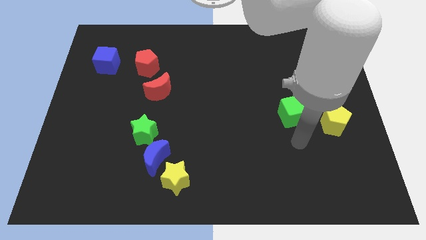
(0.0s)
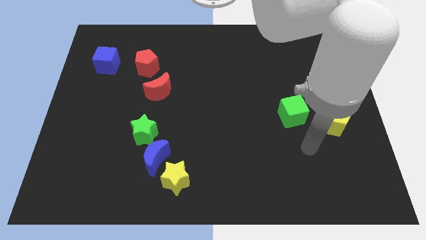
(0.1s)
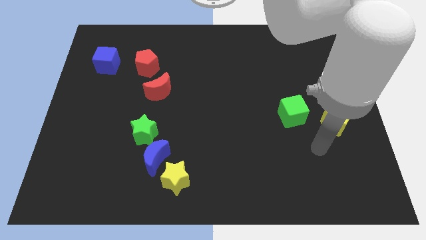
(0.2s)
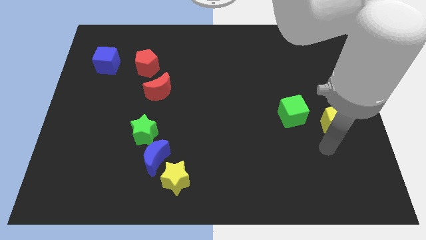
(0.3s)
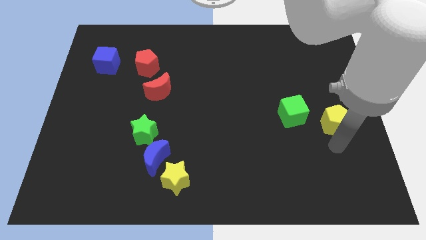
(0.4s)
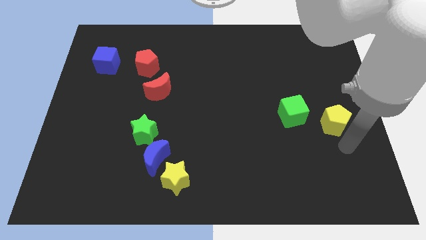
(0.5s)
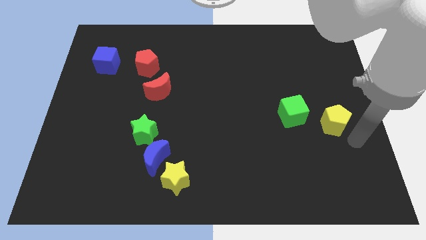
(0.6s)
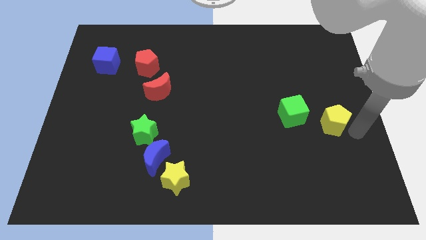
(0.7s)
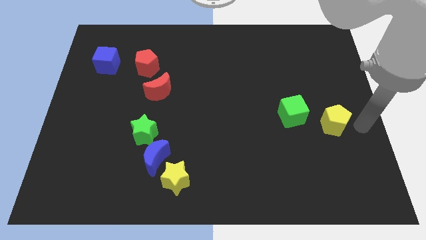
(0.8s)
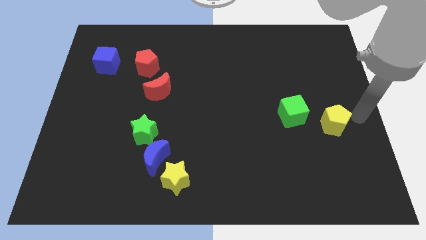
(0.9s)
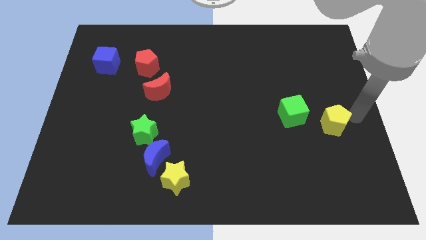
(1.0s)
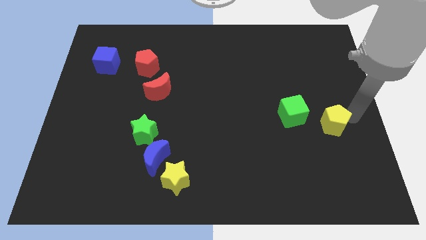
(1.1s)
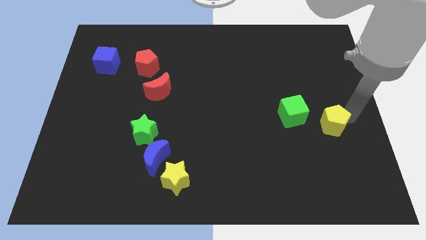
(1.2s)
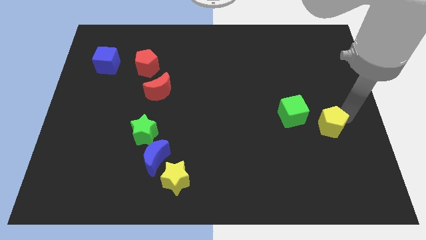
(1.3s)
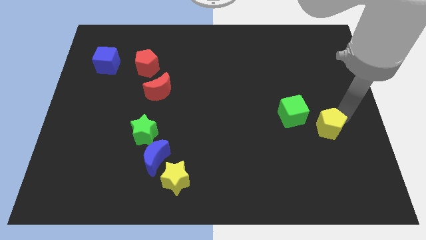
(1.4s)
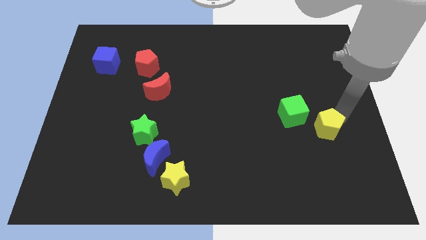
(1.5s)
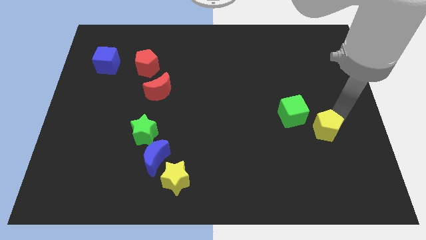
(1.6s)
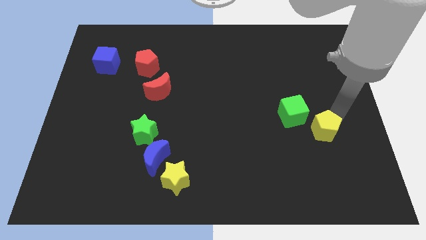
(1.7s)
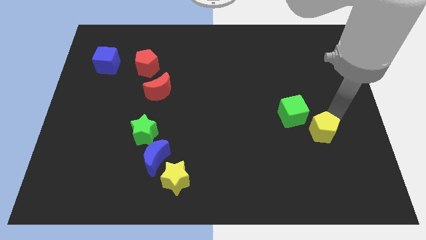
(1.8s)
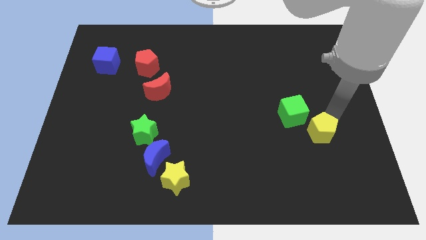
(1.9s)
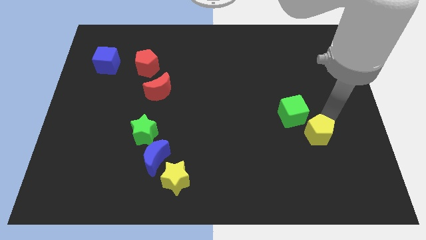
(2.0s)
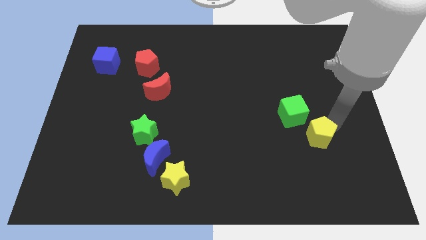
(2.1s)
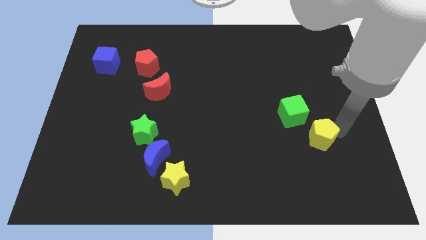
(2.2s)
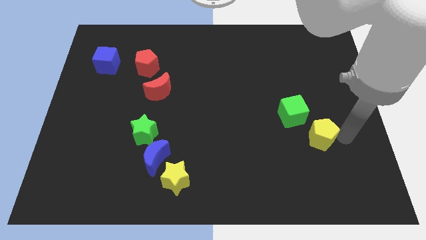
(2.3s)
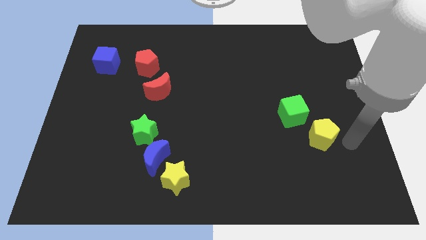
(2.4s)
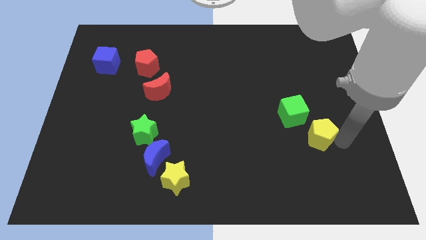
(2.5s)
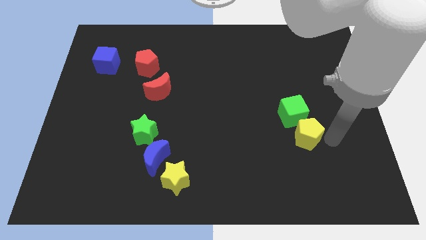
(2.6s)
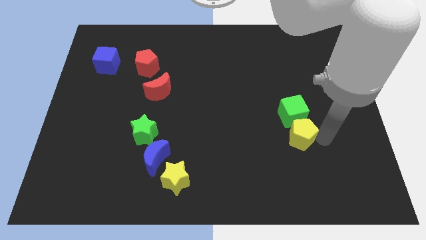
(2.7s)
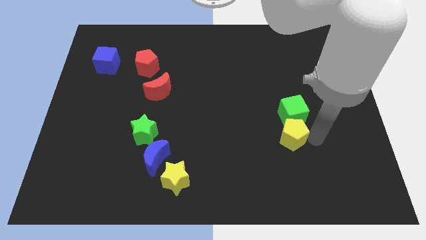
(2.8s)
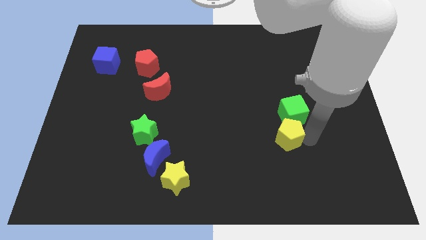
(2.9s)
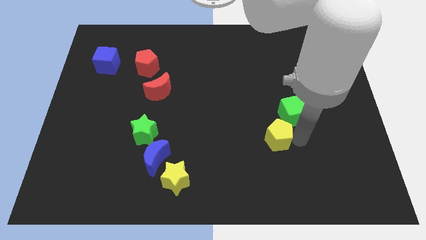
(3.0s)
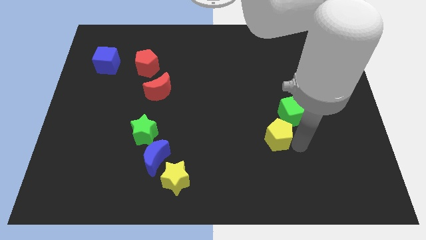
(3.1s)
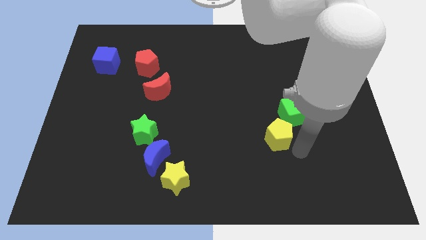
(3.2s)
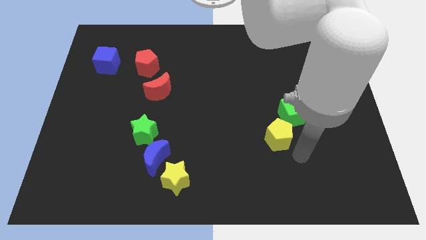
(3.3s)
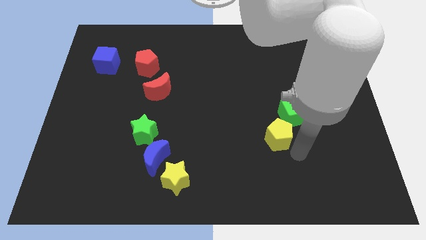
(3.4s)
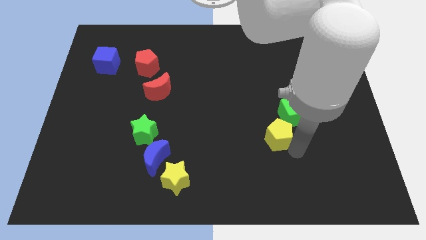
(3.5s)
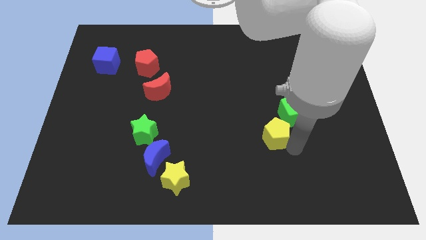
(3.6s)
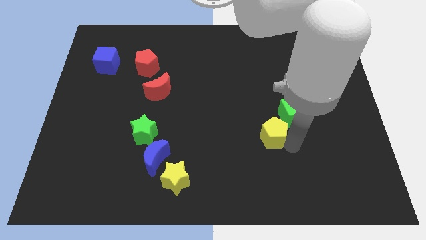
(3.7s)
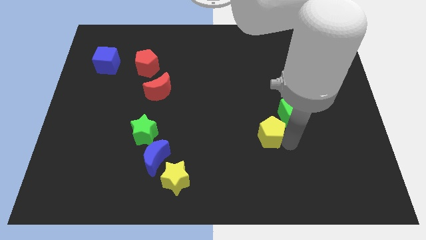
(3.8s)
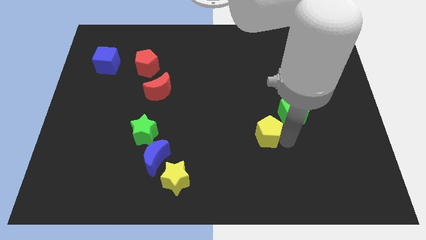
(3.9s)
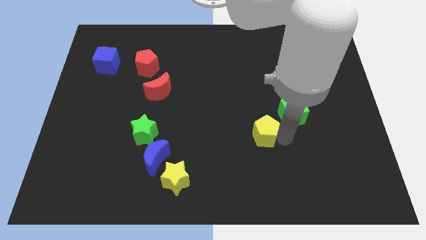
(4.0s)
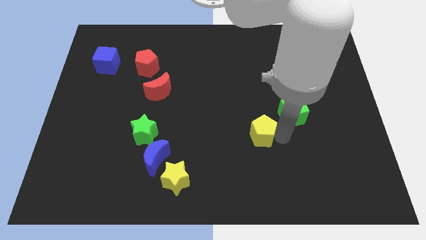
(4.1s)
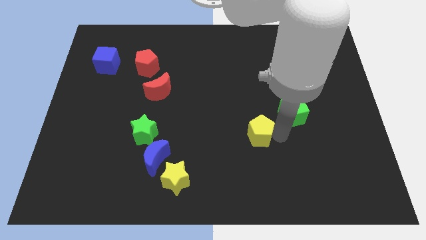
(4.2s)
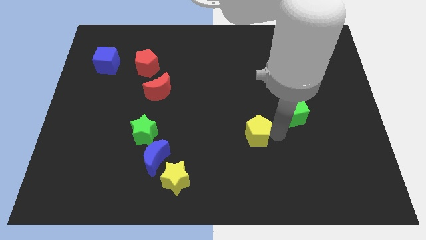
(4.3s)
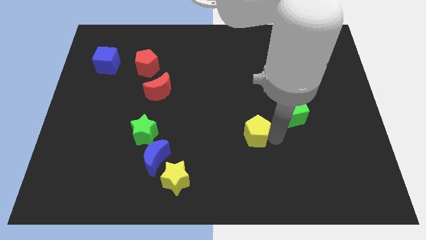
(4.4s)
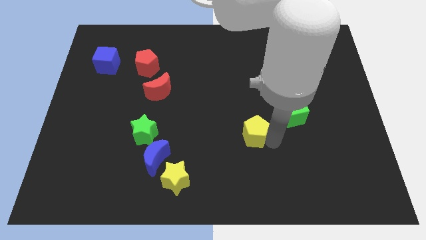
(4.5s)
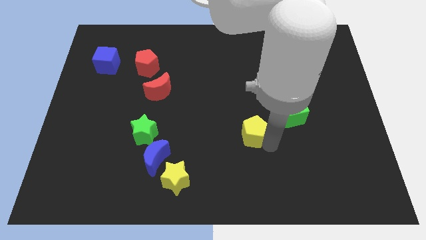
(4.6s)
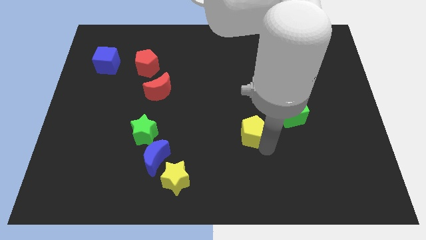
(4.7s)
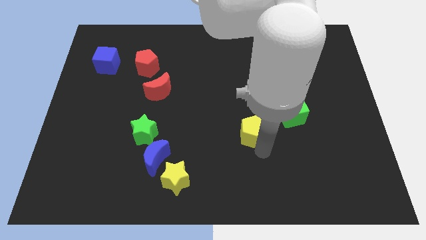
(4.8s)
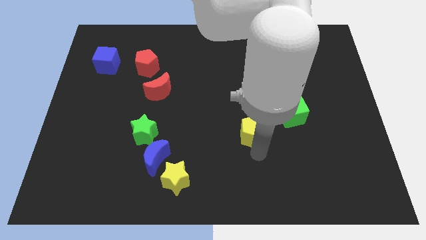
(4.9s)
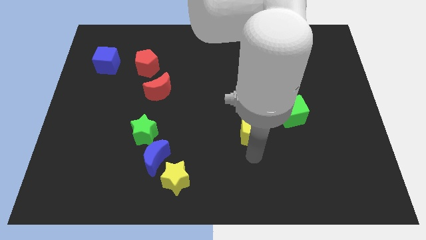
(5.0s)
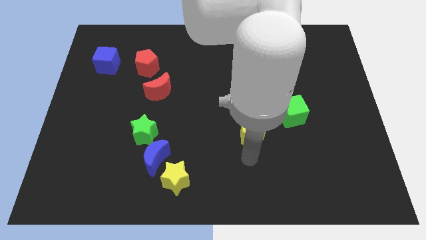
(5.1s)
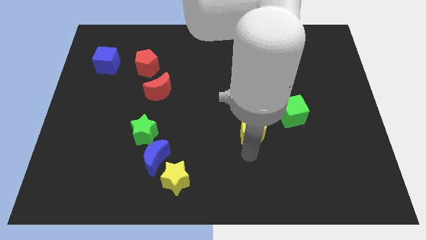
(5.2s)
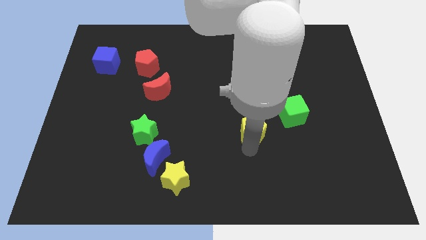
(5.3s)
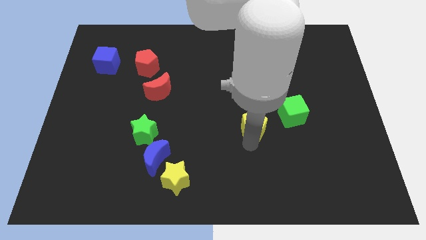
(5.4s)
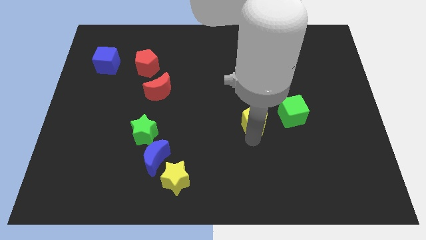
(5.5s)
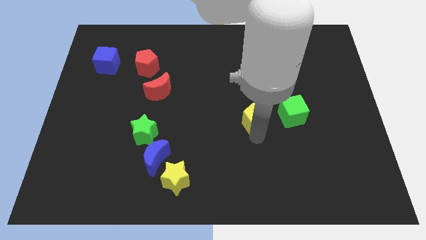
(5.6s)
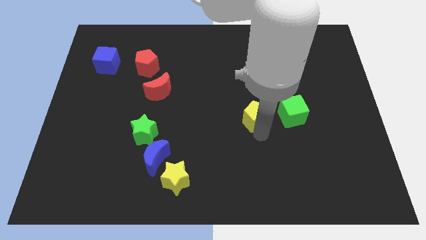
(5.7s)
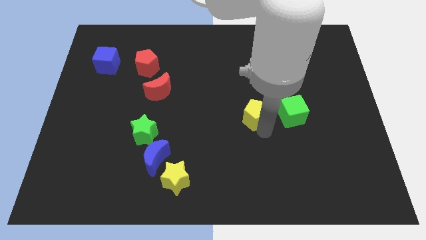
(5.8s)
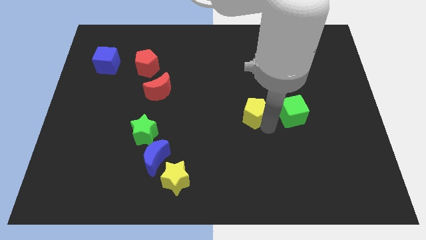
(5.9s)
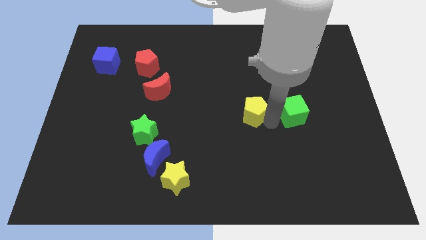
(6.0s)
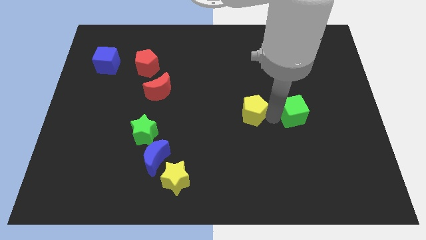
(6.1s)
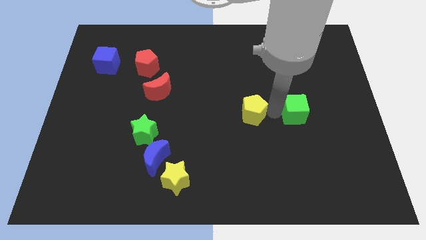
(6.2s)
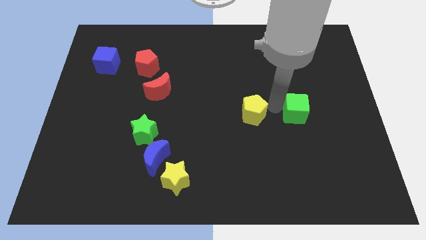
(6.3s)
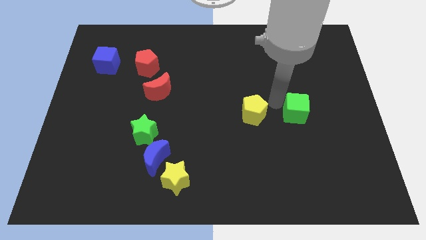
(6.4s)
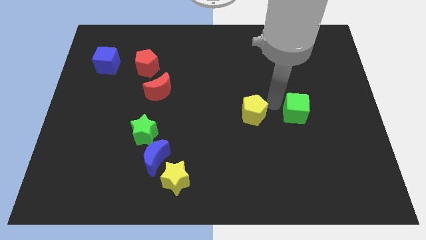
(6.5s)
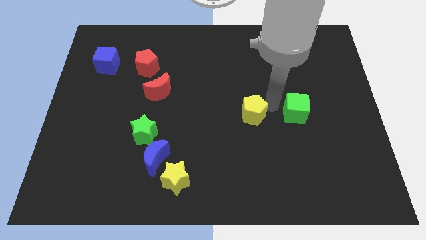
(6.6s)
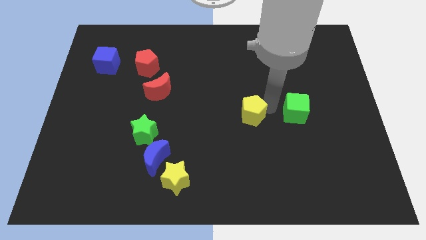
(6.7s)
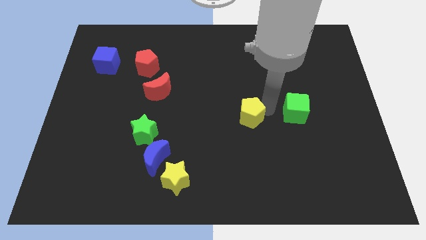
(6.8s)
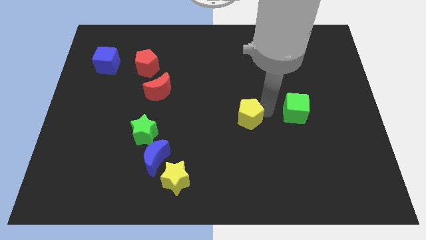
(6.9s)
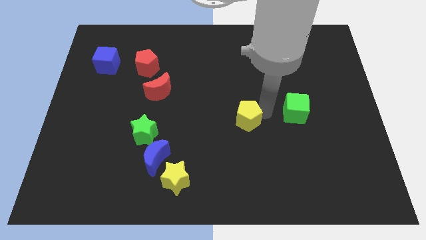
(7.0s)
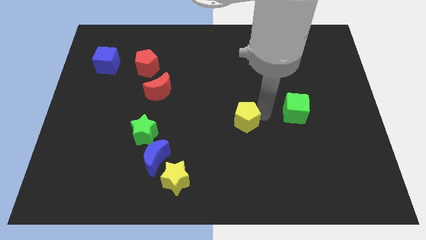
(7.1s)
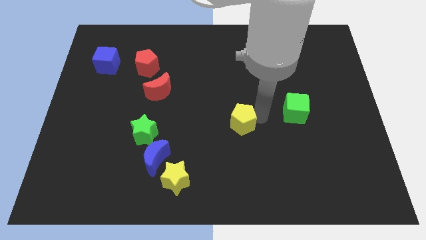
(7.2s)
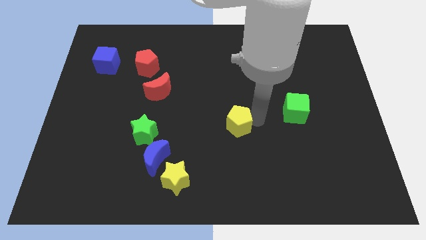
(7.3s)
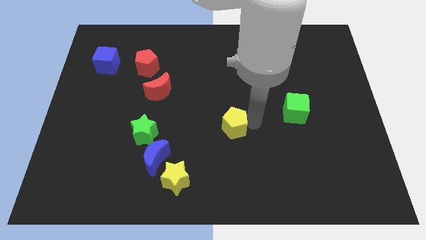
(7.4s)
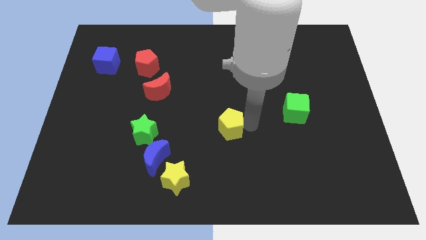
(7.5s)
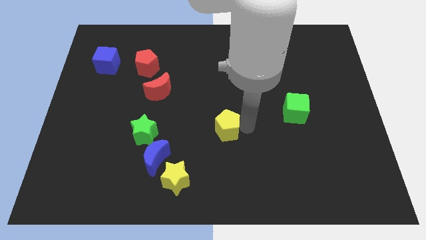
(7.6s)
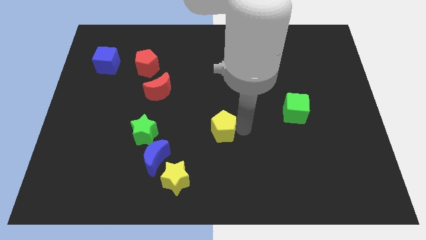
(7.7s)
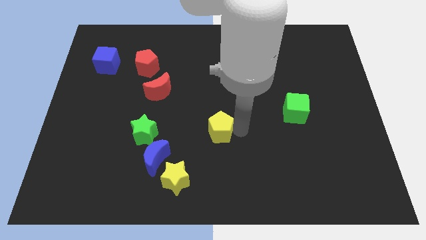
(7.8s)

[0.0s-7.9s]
push the yellow pentagon to the right of the green star

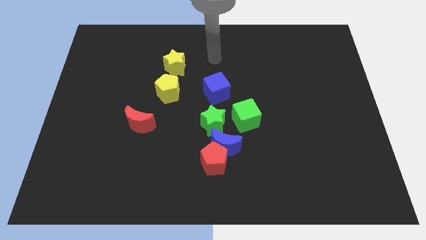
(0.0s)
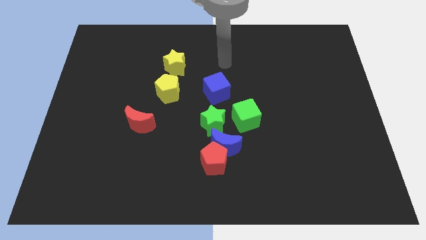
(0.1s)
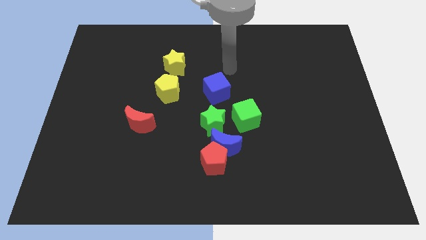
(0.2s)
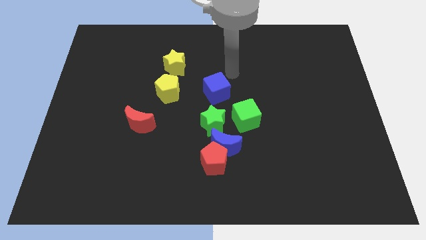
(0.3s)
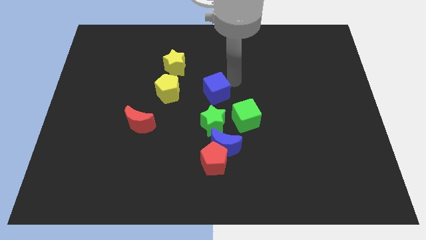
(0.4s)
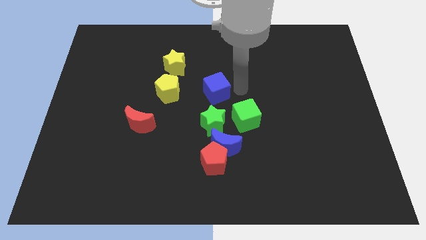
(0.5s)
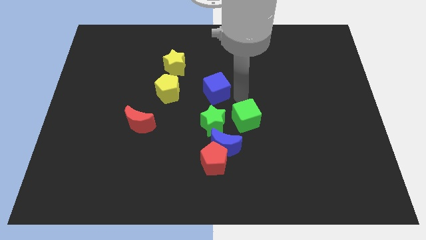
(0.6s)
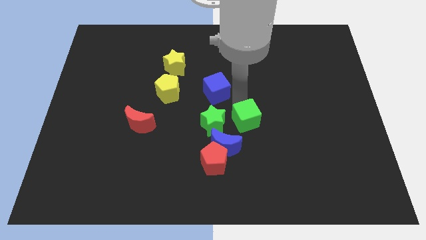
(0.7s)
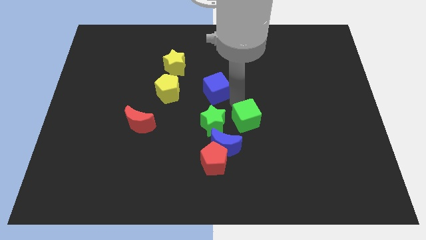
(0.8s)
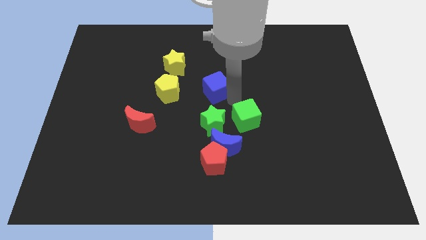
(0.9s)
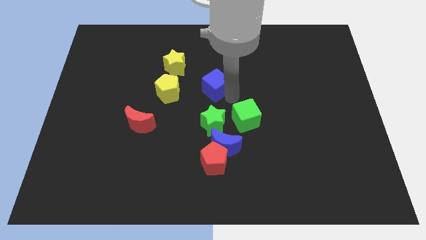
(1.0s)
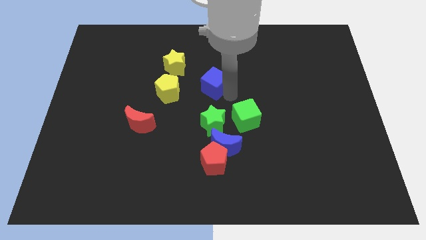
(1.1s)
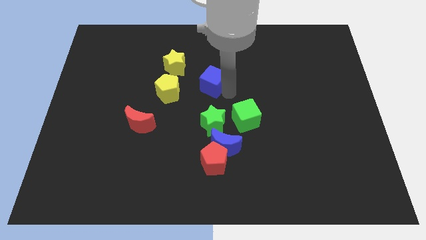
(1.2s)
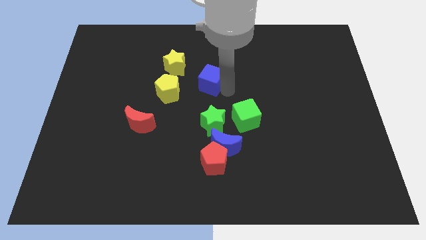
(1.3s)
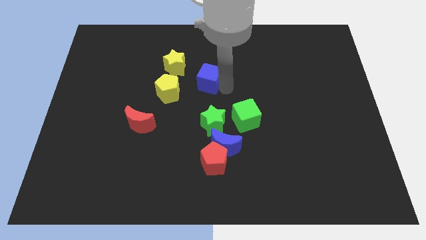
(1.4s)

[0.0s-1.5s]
slide the blue cube to the top right of the yellow pentagon
